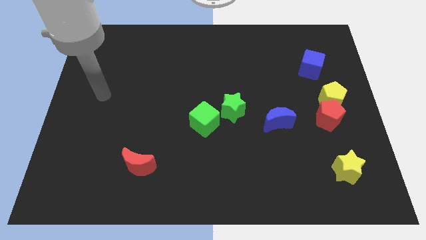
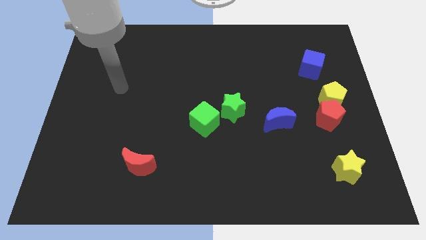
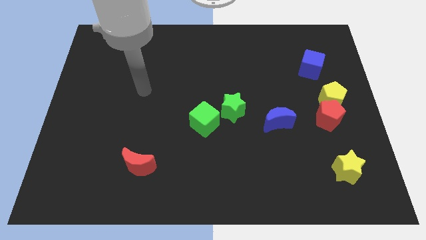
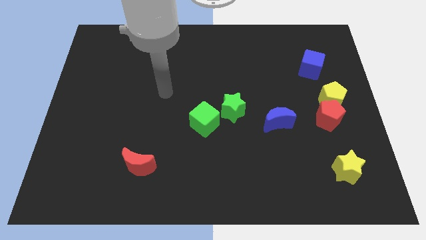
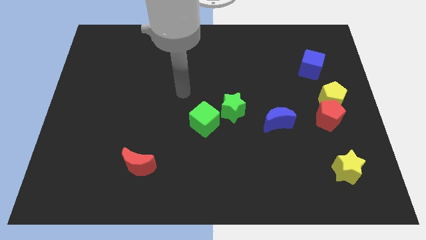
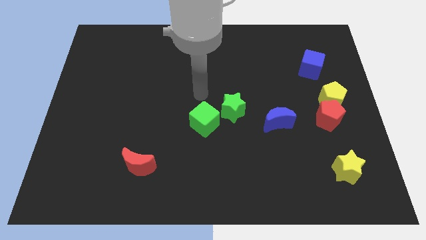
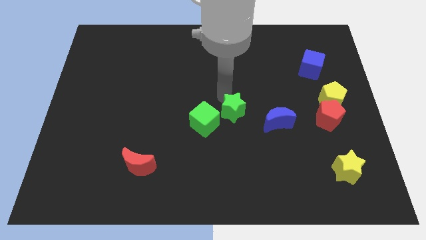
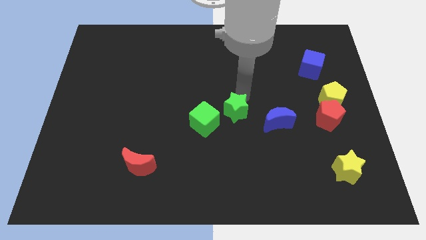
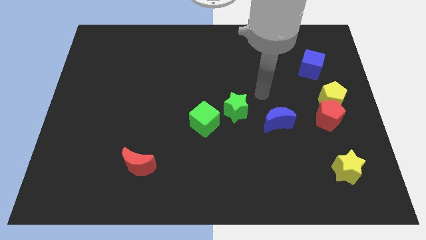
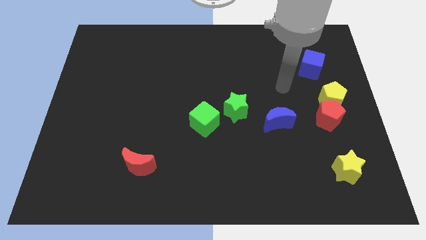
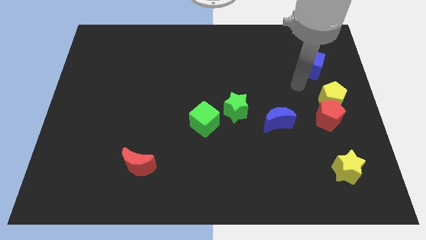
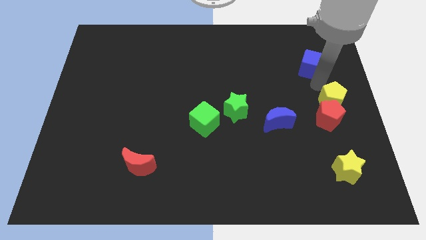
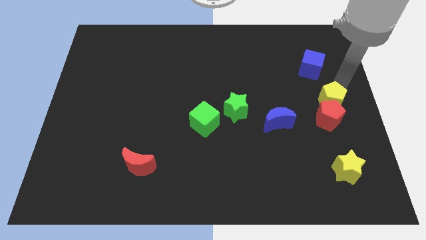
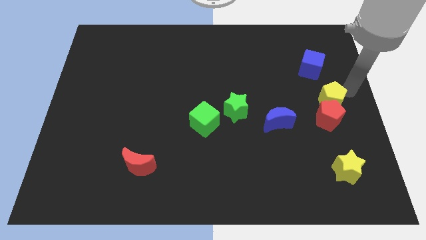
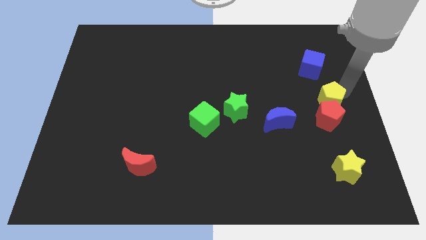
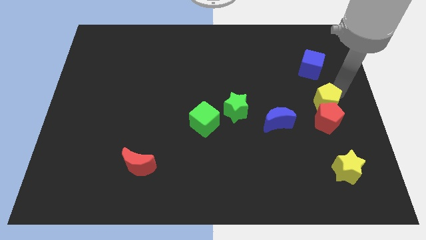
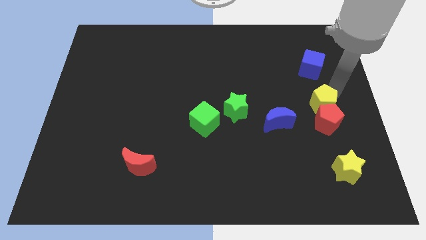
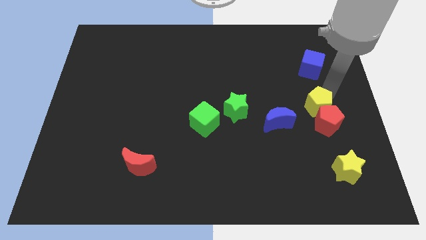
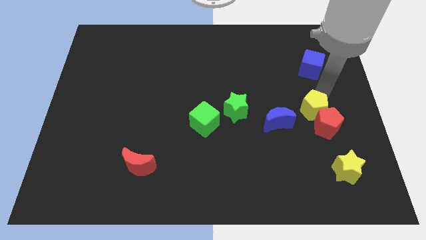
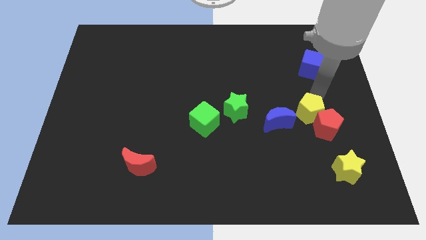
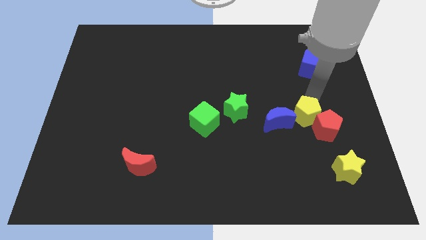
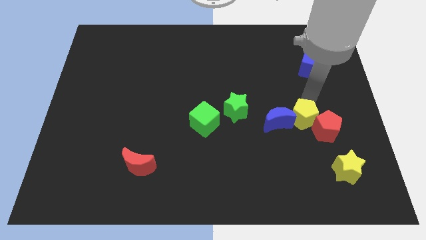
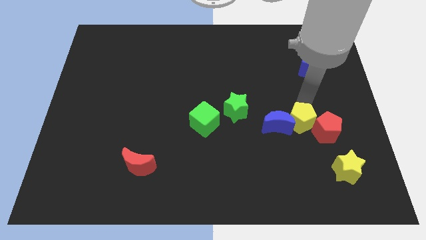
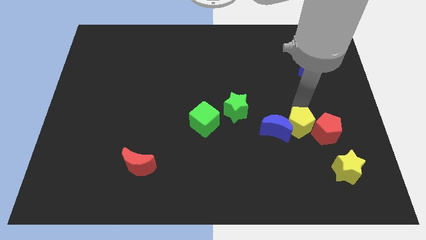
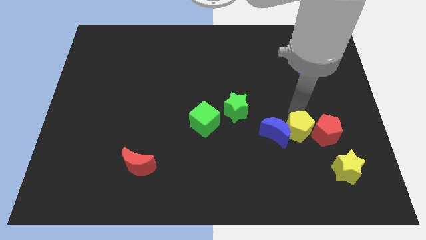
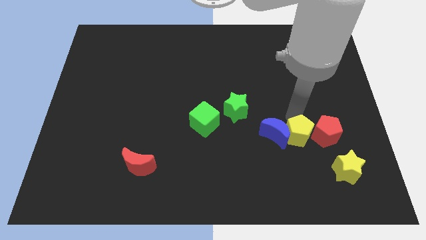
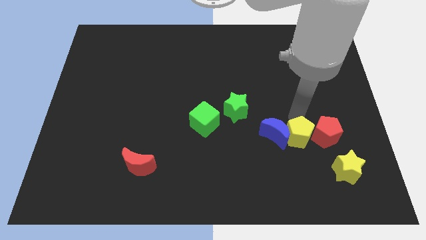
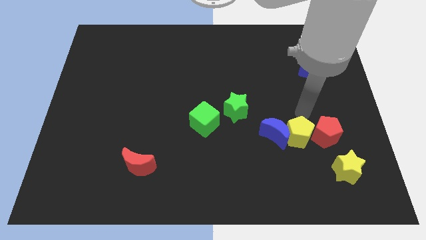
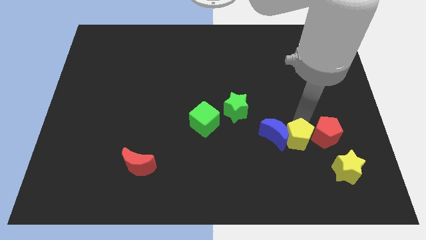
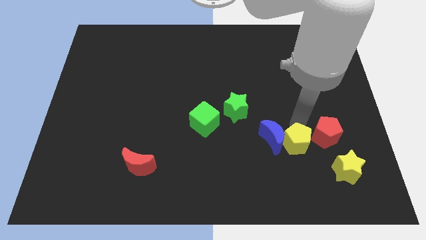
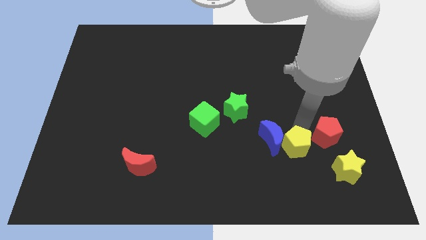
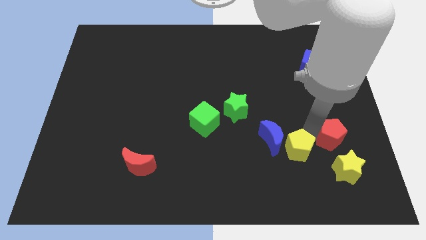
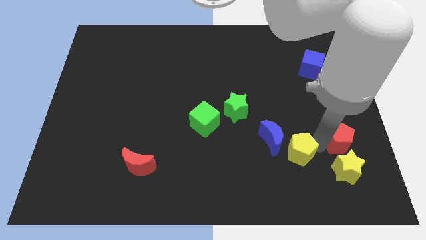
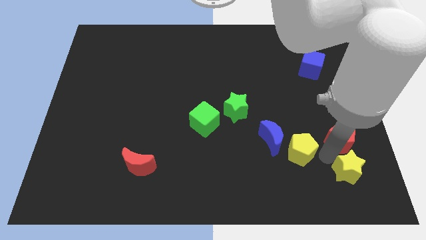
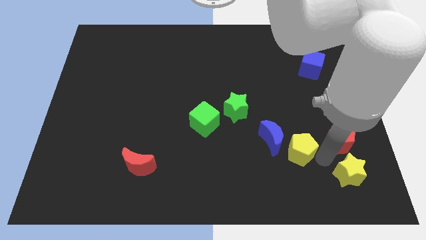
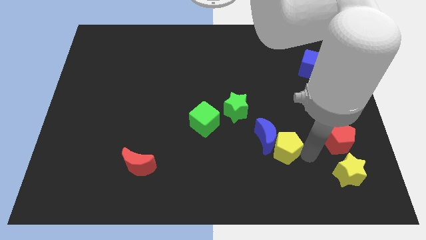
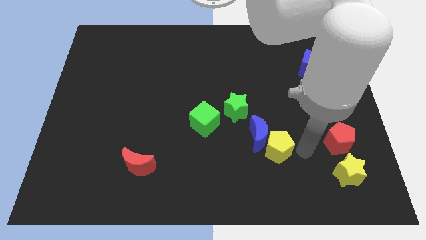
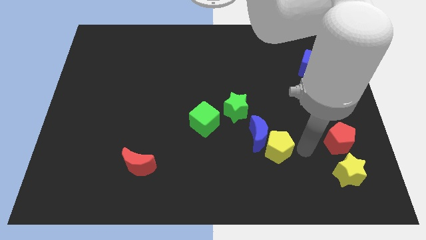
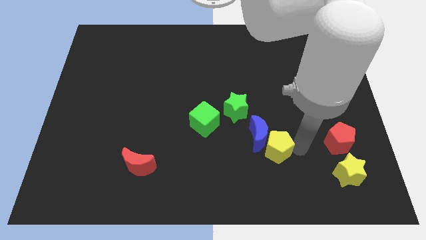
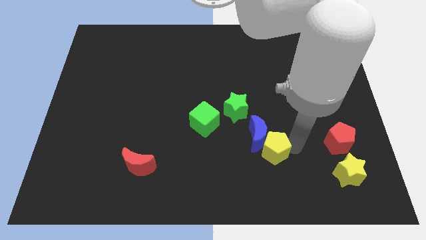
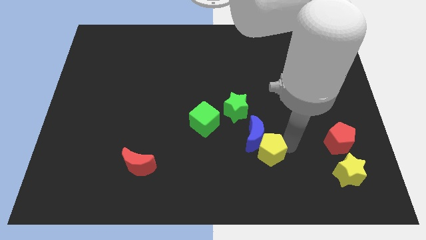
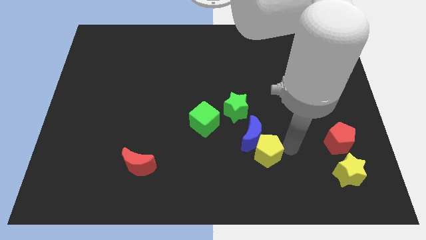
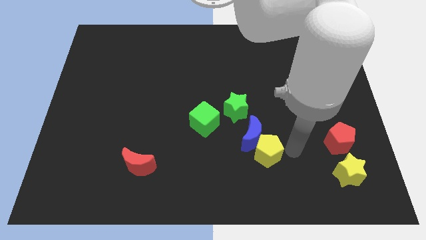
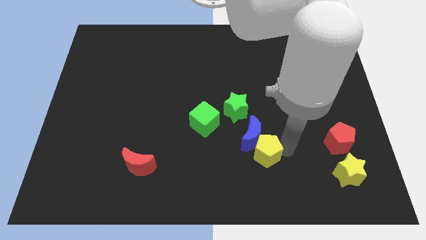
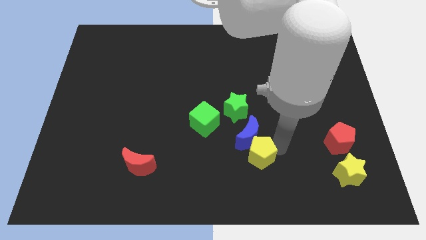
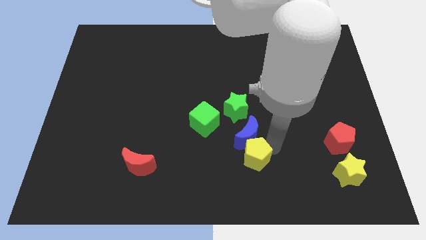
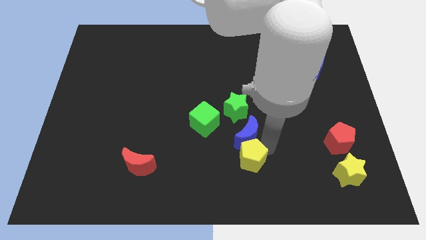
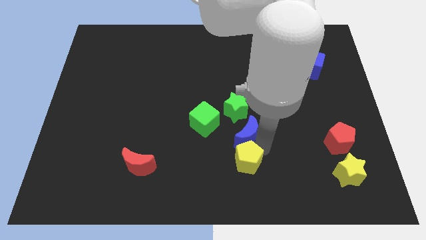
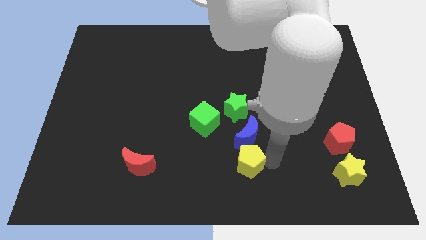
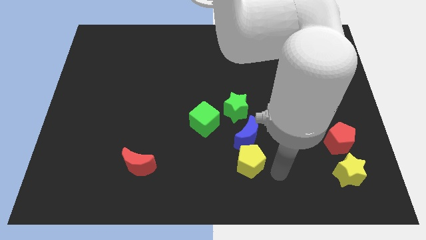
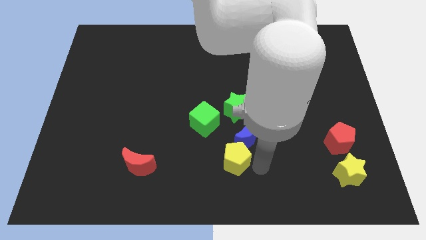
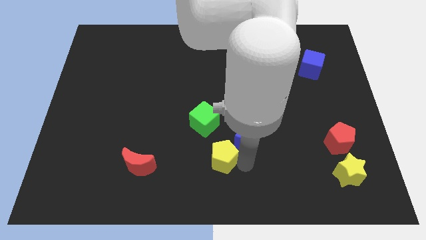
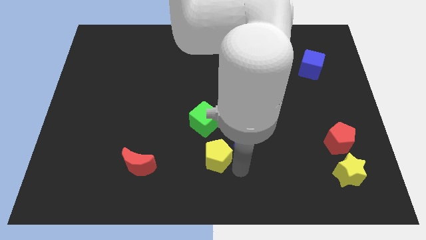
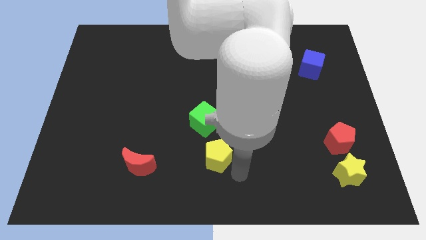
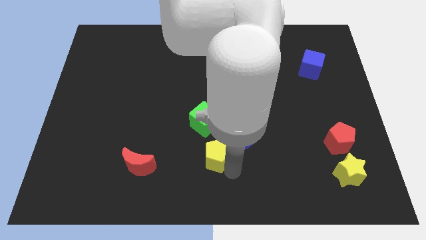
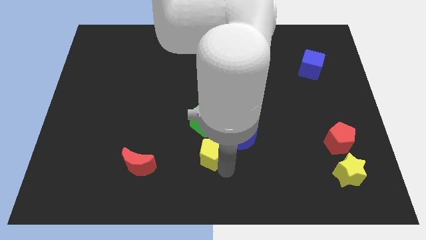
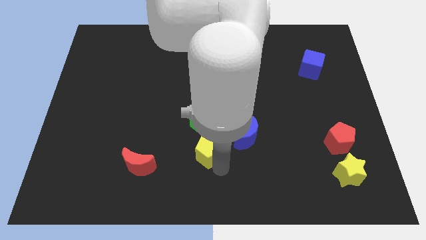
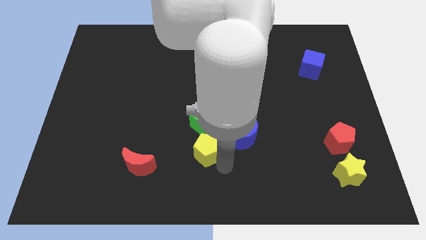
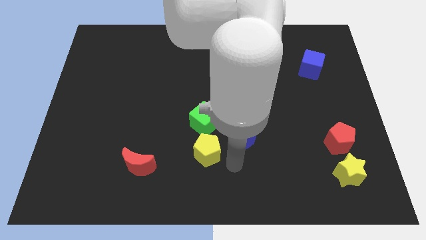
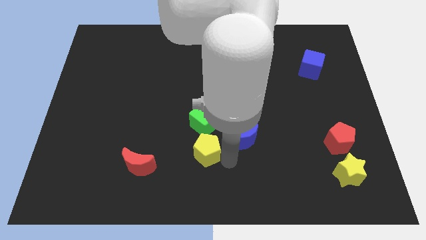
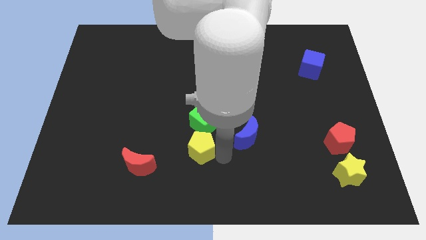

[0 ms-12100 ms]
slide the yellow pentagon to the bottom left side of the green cube
